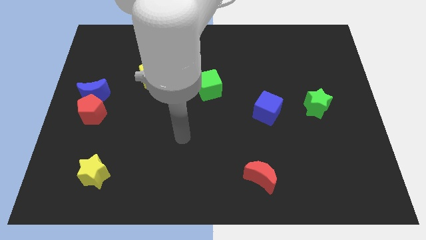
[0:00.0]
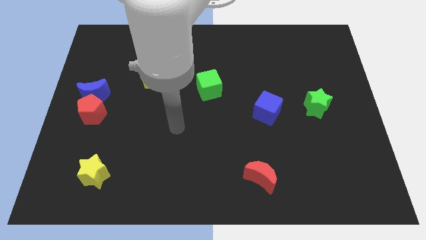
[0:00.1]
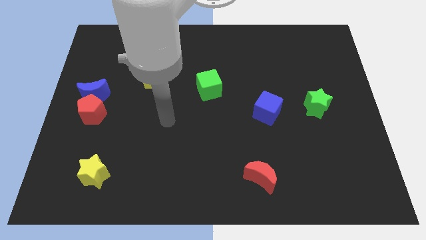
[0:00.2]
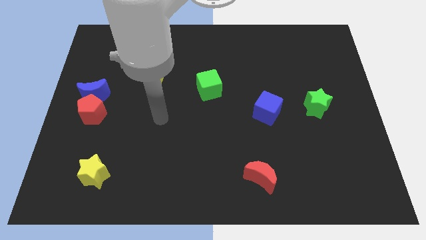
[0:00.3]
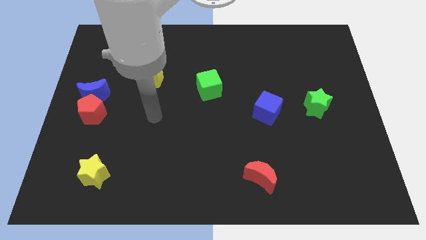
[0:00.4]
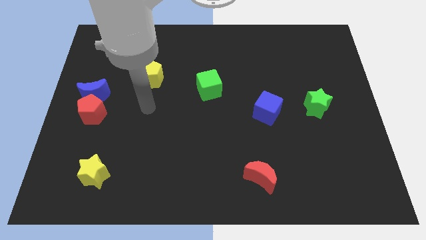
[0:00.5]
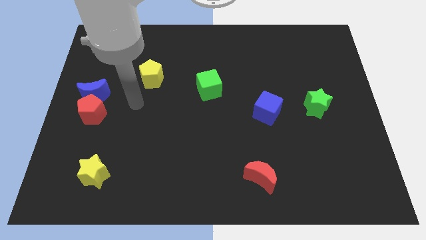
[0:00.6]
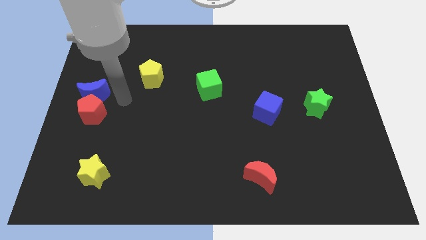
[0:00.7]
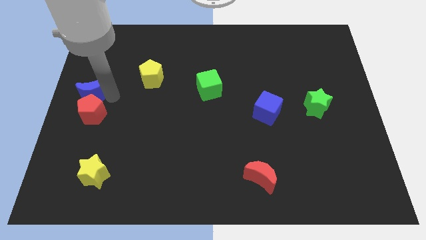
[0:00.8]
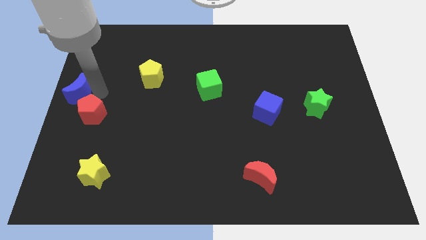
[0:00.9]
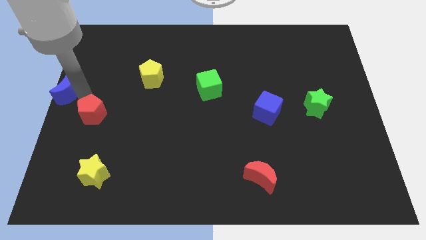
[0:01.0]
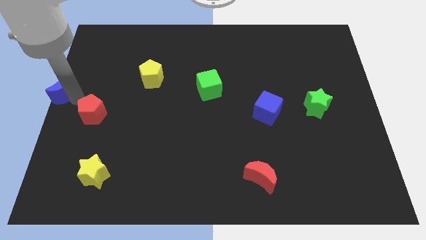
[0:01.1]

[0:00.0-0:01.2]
pull the red pentagon apart from the blue moon

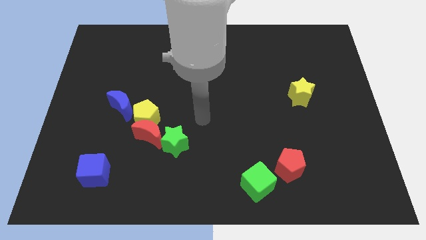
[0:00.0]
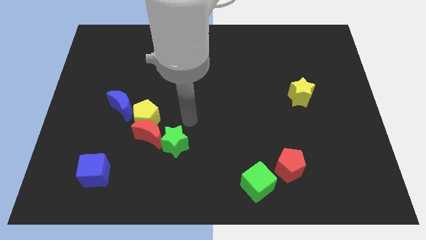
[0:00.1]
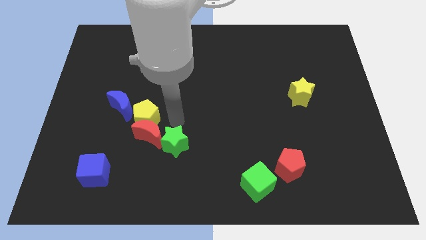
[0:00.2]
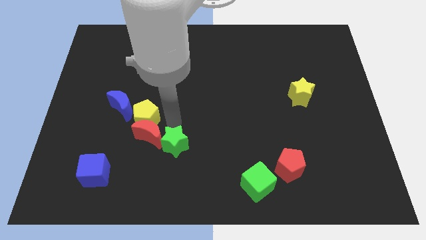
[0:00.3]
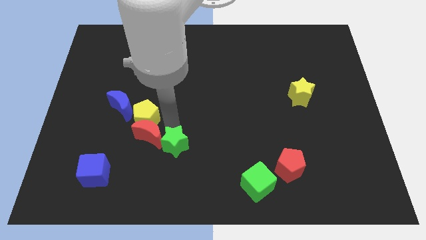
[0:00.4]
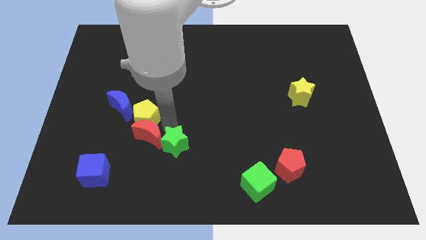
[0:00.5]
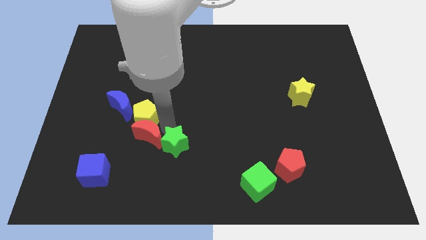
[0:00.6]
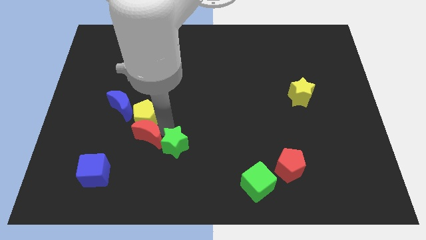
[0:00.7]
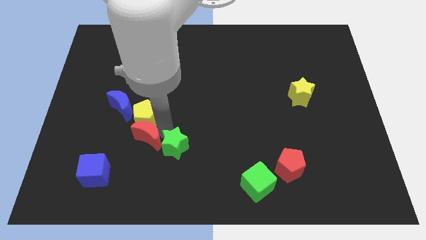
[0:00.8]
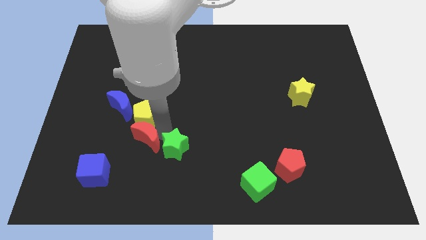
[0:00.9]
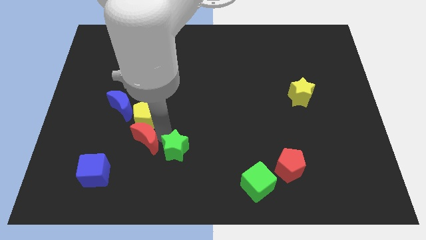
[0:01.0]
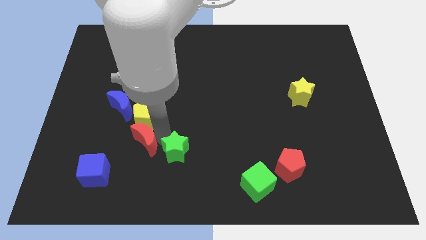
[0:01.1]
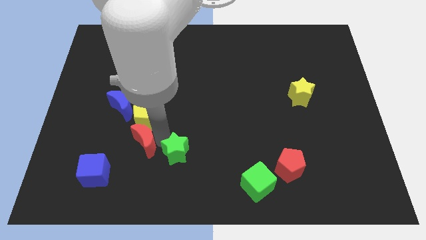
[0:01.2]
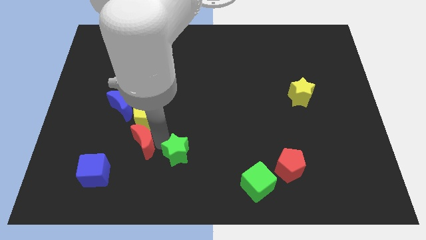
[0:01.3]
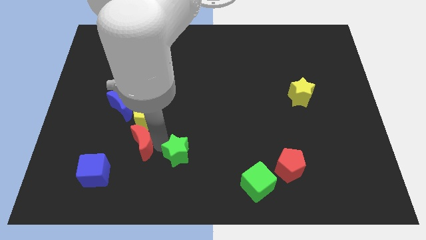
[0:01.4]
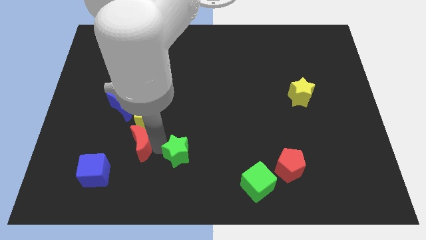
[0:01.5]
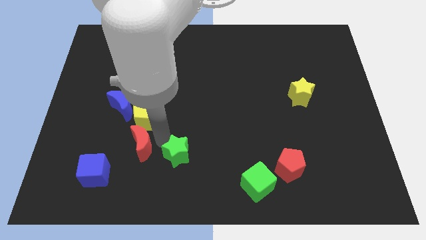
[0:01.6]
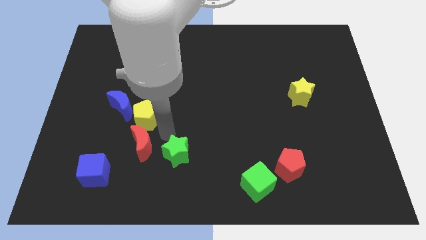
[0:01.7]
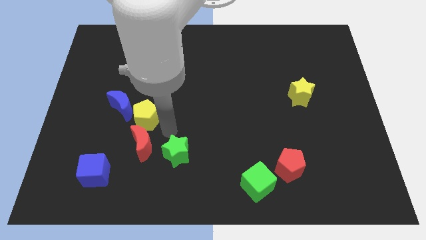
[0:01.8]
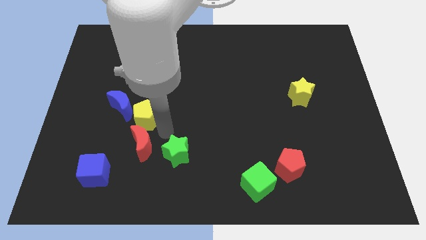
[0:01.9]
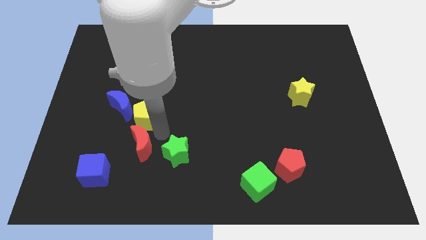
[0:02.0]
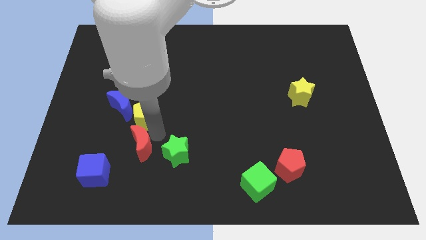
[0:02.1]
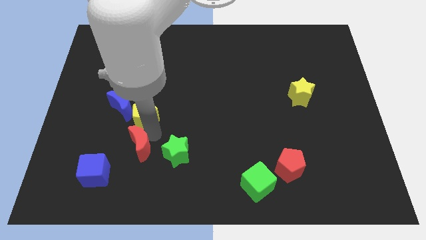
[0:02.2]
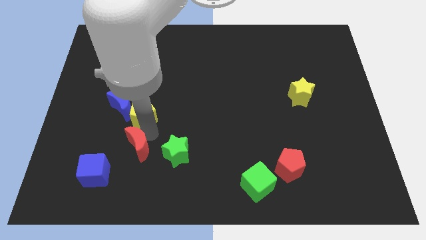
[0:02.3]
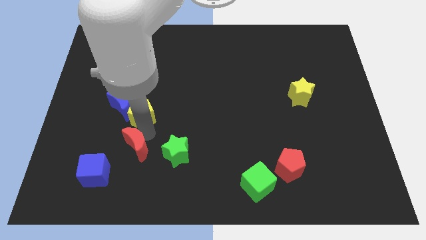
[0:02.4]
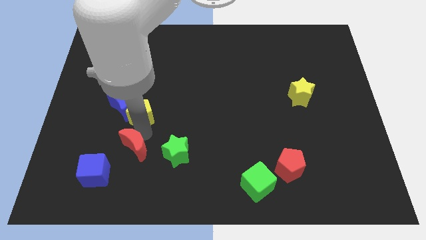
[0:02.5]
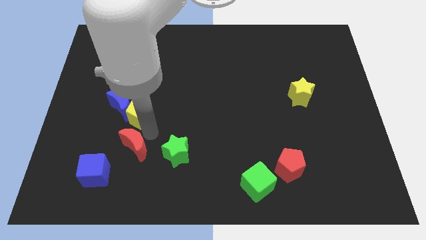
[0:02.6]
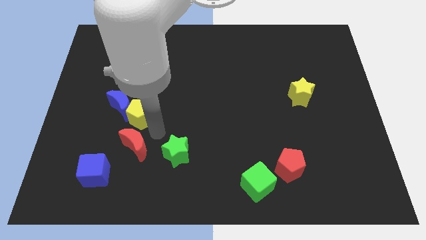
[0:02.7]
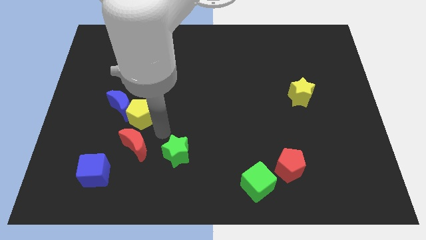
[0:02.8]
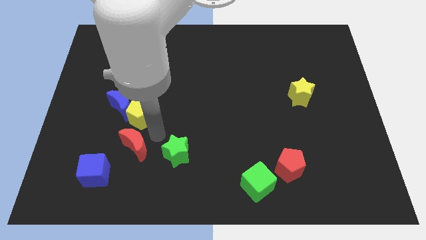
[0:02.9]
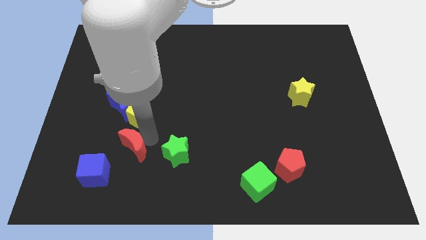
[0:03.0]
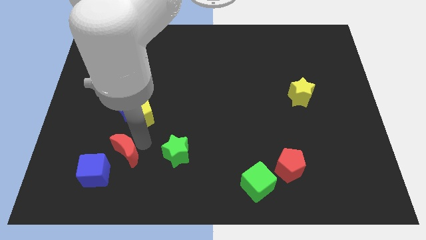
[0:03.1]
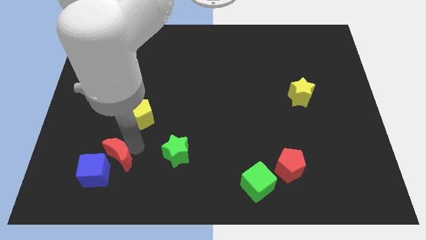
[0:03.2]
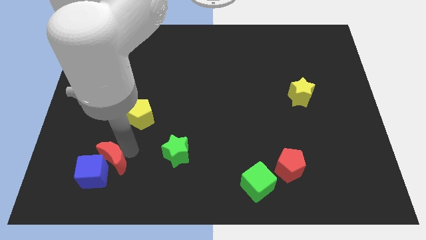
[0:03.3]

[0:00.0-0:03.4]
move the red moon away from the yellow pentagon and green star

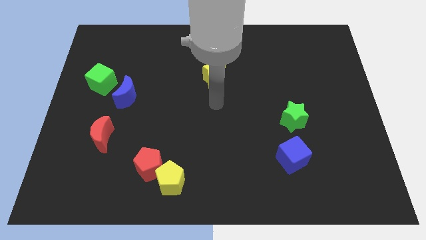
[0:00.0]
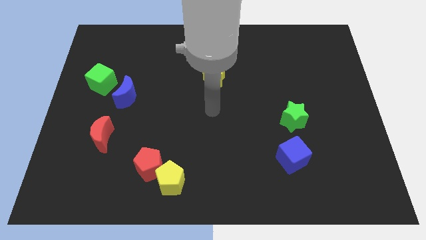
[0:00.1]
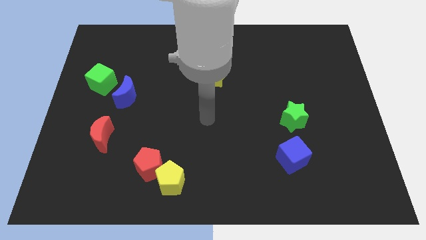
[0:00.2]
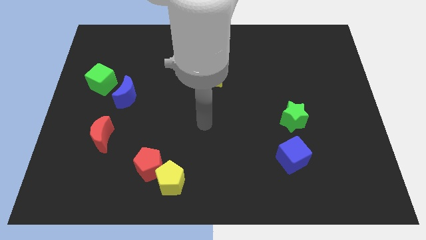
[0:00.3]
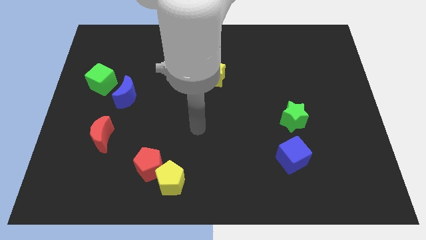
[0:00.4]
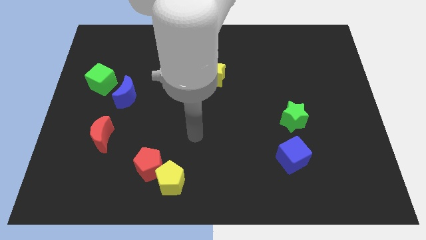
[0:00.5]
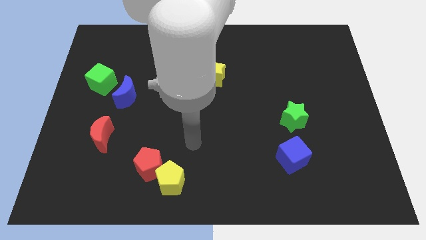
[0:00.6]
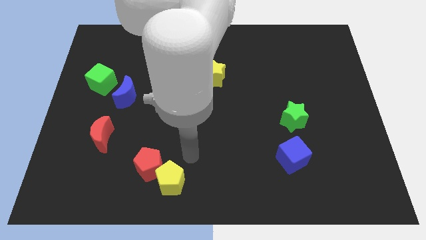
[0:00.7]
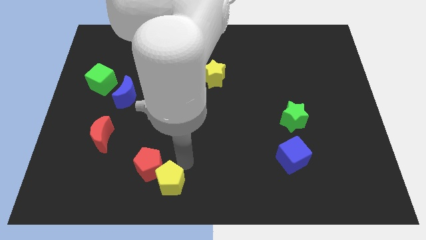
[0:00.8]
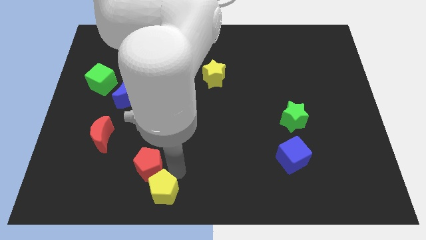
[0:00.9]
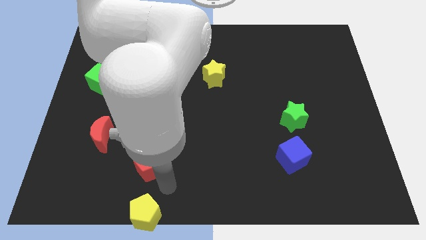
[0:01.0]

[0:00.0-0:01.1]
move the red pentagon away from the yellow pentagon

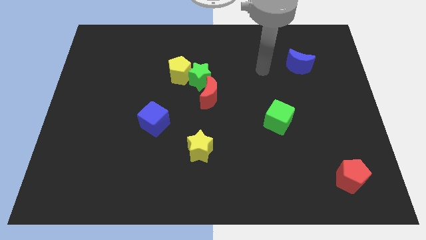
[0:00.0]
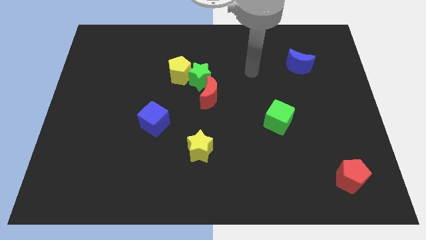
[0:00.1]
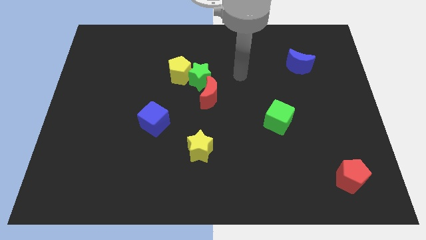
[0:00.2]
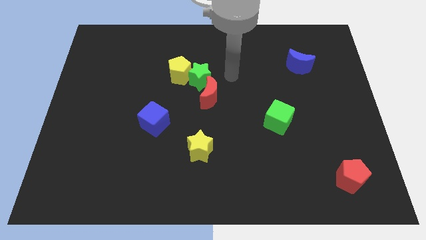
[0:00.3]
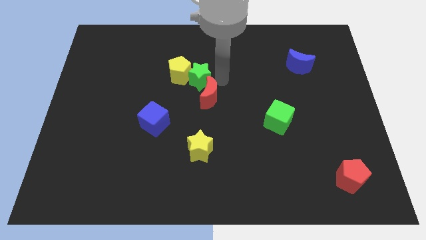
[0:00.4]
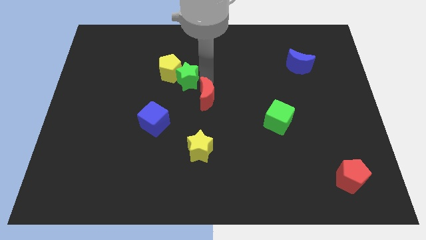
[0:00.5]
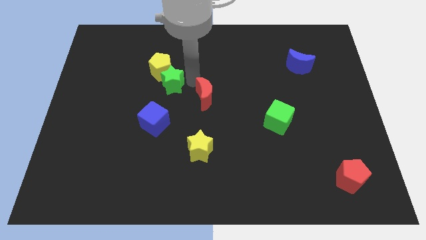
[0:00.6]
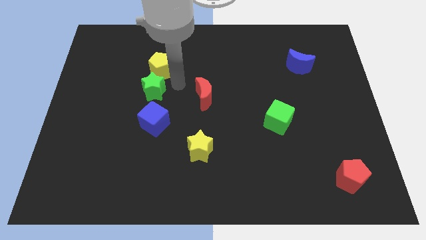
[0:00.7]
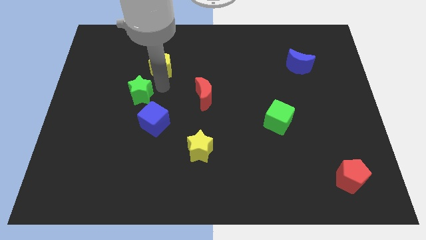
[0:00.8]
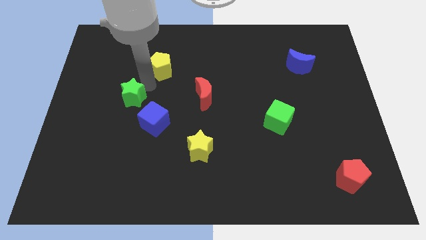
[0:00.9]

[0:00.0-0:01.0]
move the yellow pentagon away from the green star

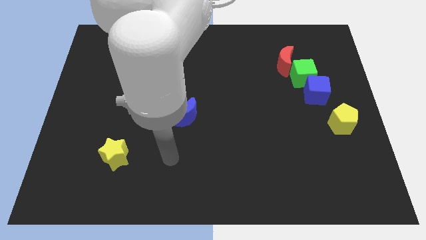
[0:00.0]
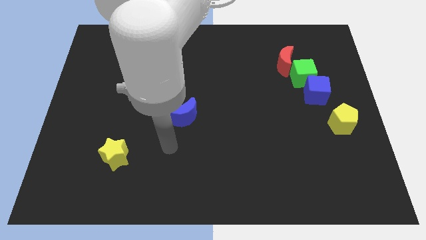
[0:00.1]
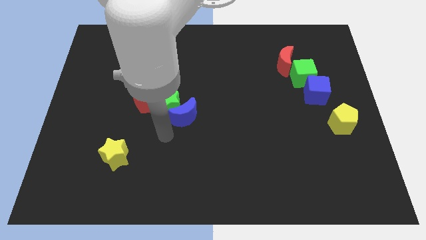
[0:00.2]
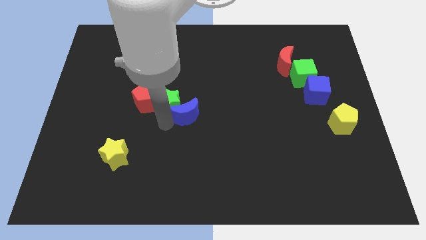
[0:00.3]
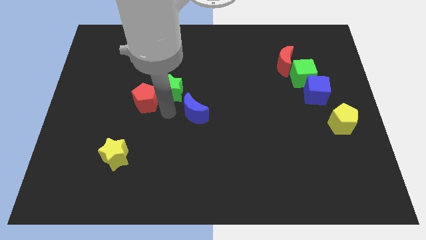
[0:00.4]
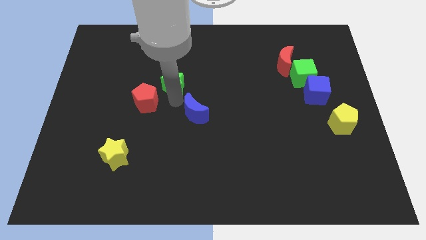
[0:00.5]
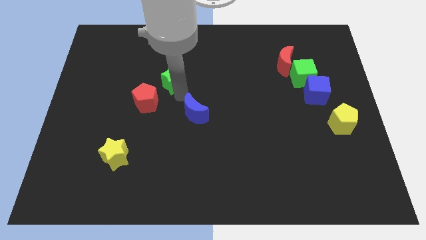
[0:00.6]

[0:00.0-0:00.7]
separate the blue moon from the green star

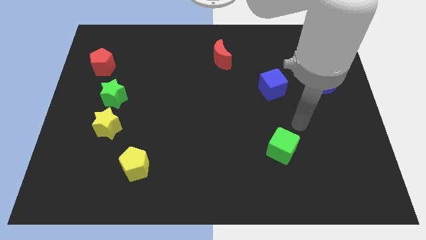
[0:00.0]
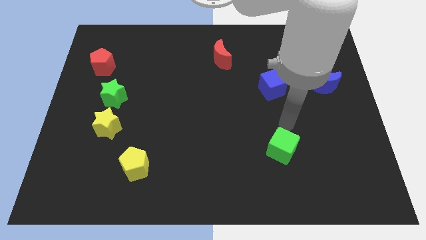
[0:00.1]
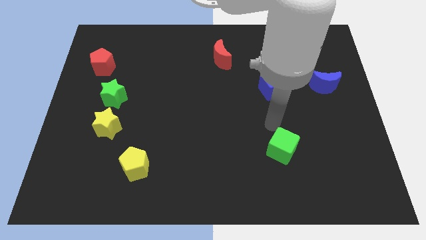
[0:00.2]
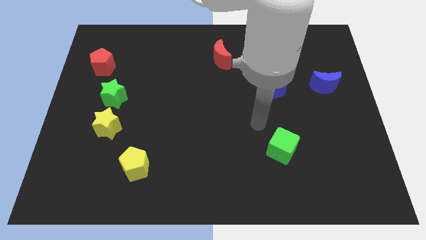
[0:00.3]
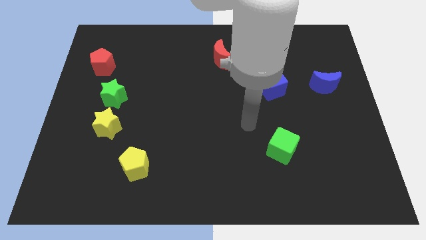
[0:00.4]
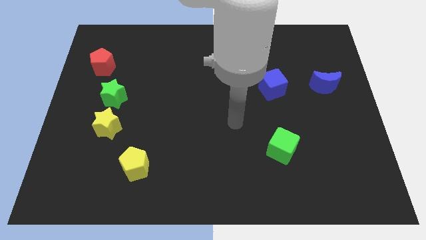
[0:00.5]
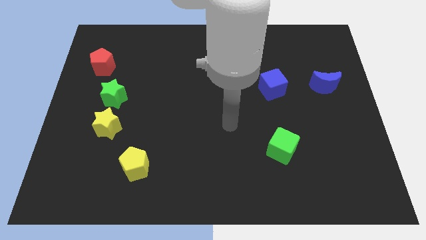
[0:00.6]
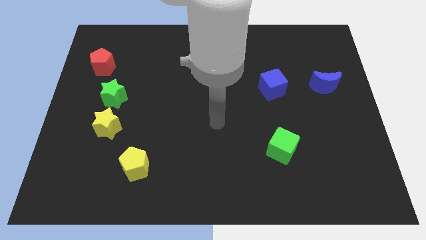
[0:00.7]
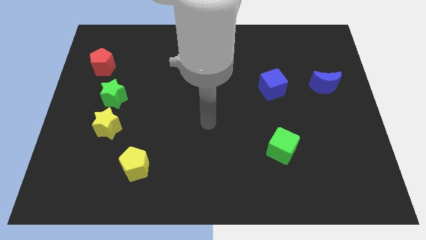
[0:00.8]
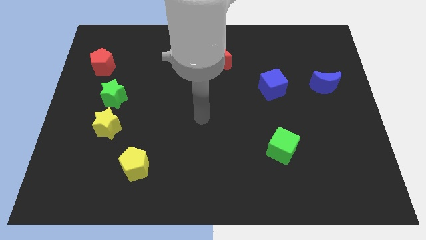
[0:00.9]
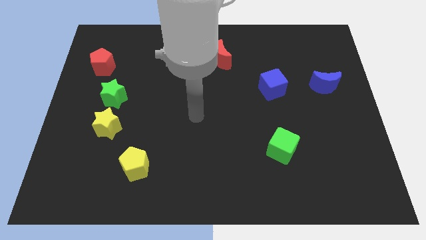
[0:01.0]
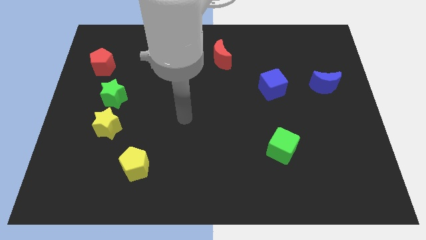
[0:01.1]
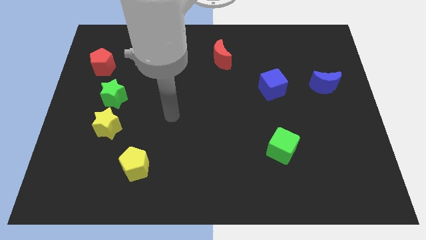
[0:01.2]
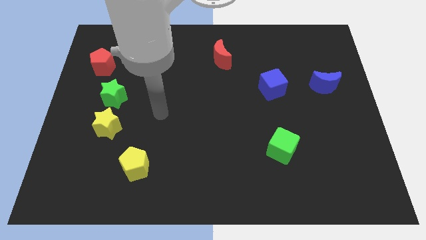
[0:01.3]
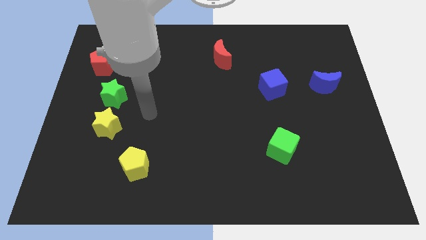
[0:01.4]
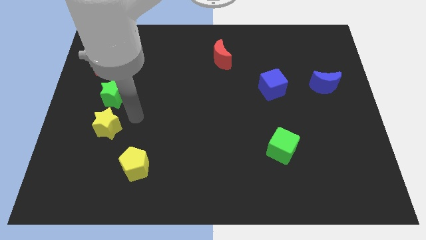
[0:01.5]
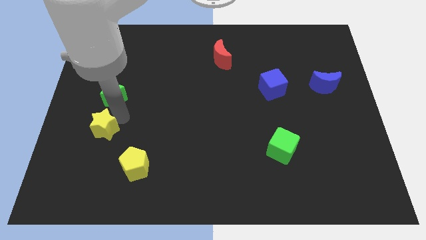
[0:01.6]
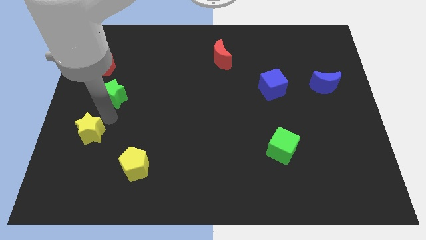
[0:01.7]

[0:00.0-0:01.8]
separate the green star from the yellow star
